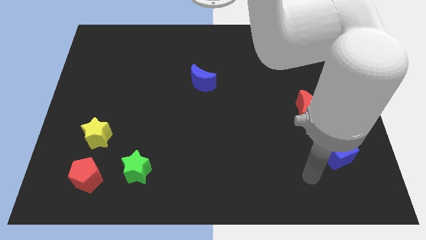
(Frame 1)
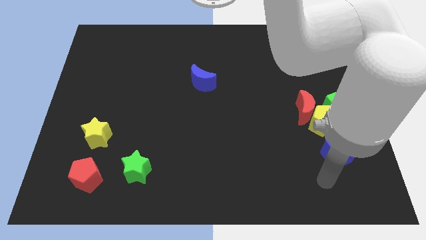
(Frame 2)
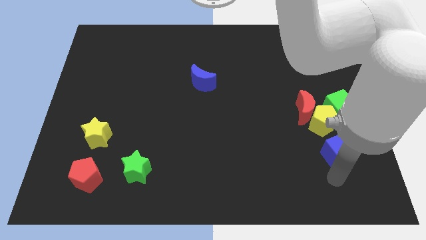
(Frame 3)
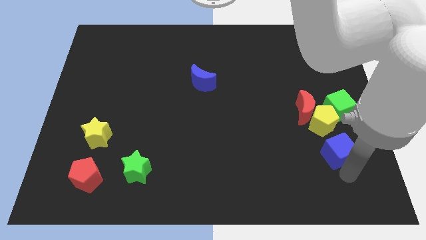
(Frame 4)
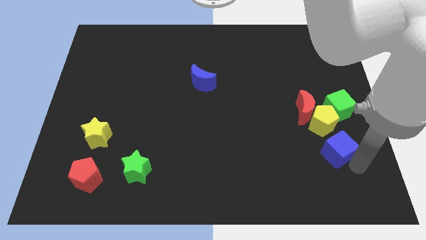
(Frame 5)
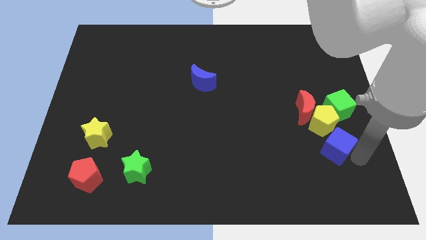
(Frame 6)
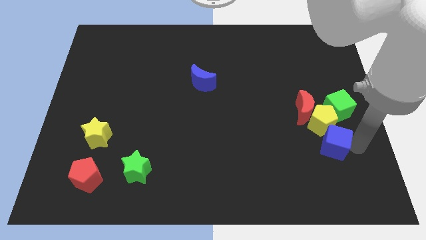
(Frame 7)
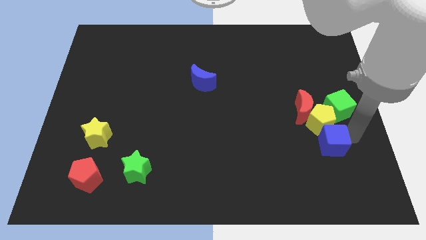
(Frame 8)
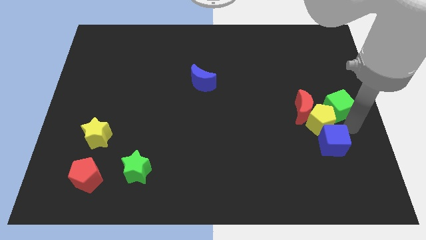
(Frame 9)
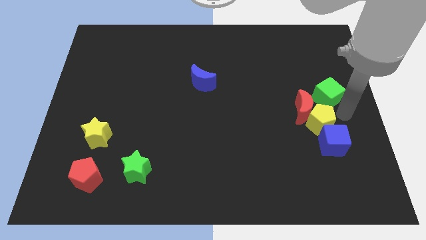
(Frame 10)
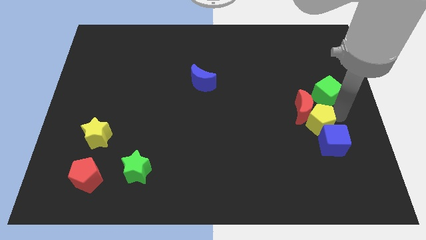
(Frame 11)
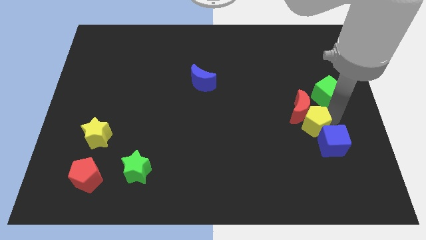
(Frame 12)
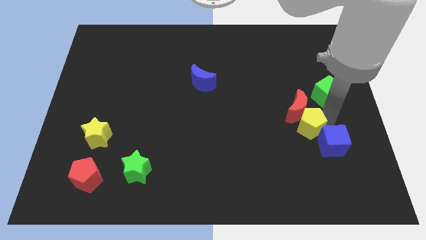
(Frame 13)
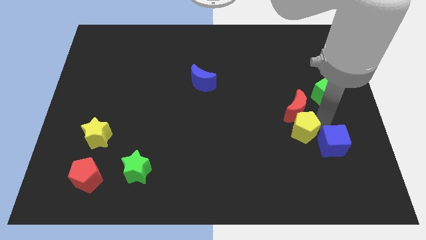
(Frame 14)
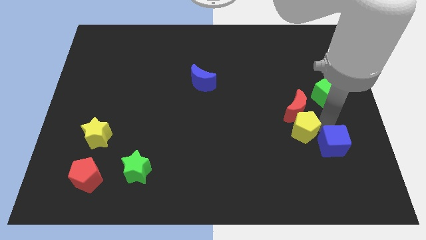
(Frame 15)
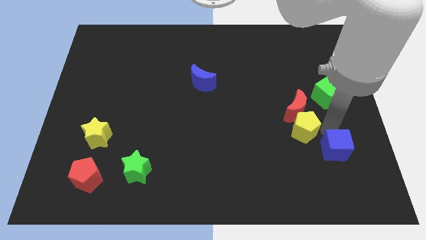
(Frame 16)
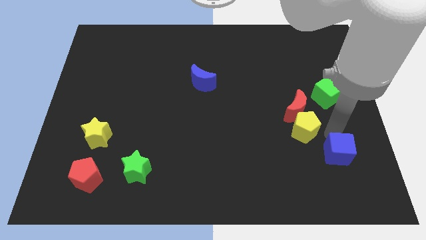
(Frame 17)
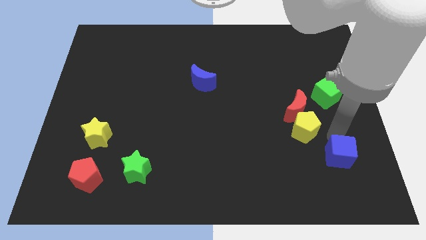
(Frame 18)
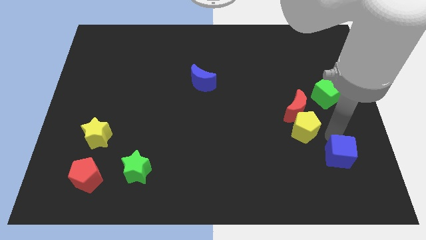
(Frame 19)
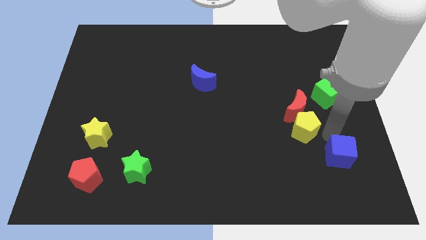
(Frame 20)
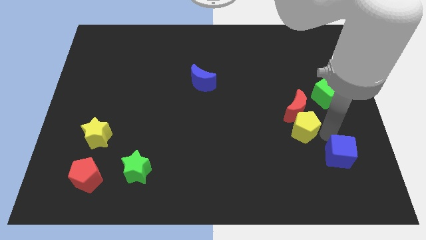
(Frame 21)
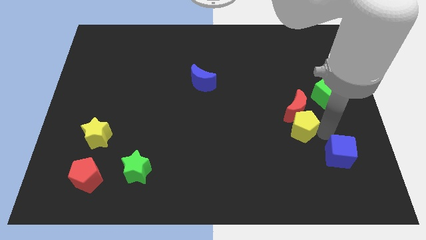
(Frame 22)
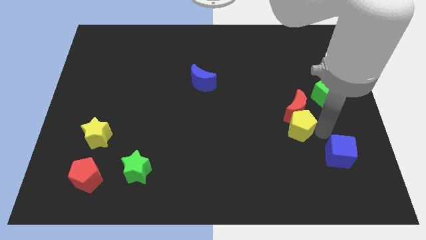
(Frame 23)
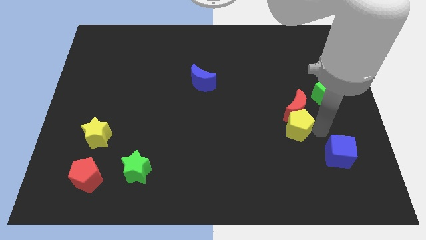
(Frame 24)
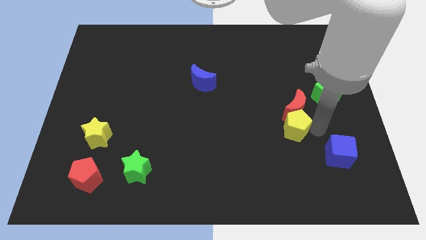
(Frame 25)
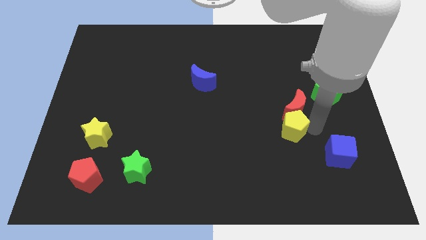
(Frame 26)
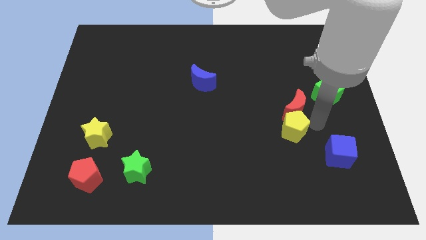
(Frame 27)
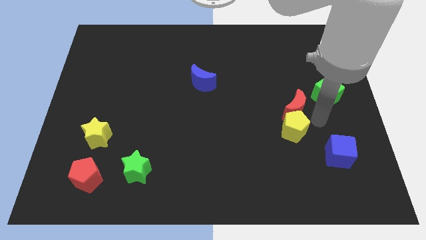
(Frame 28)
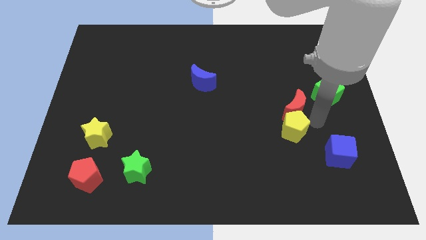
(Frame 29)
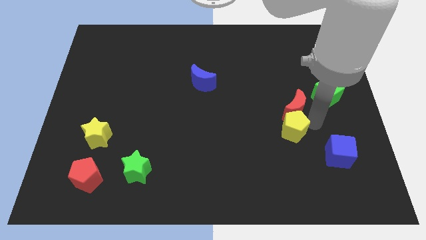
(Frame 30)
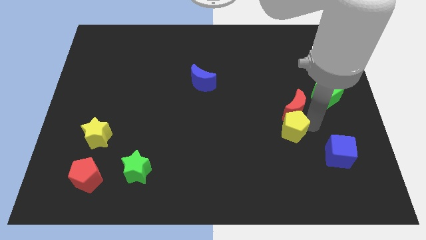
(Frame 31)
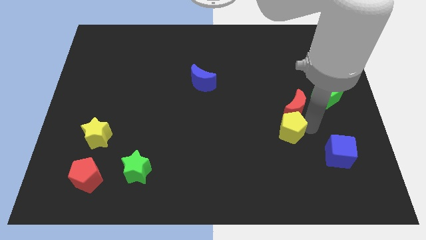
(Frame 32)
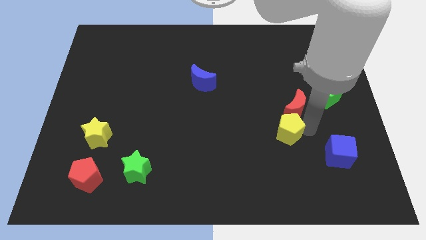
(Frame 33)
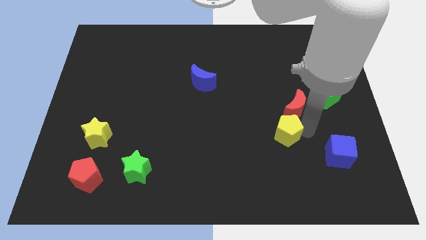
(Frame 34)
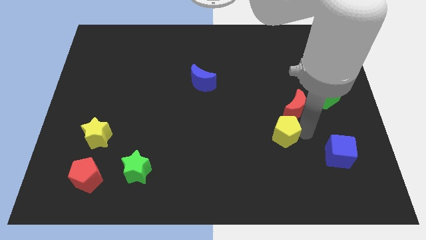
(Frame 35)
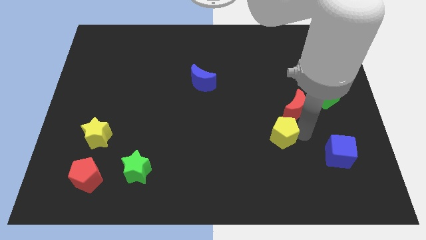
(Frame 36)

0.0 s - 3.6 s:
separate the yellow pentagon from the red moon, green cube, and blue cube

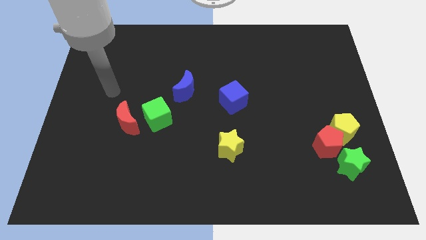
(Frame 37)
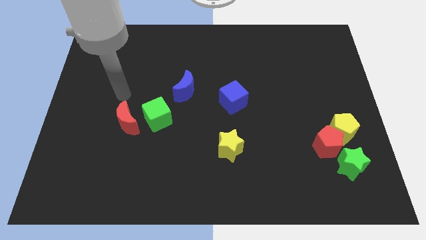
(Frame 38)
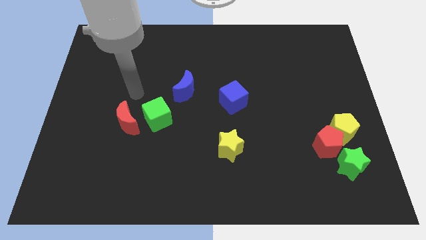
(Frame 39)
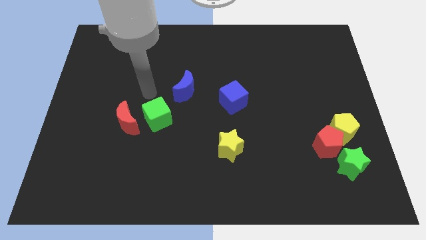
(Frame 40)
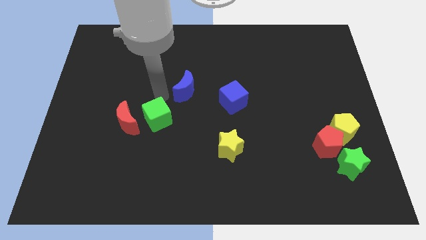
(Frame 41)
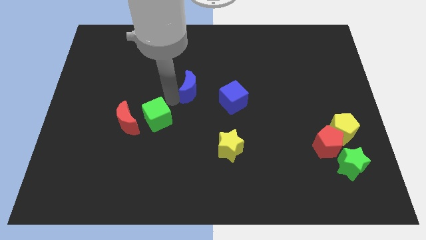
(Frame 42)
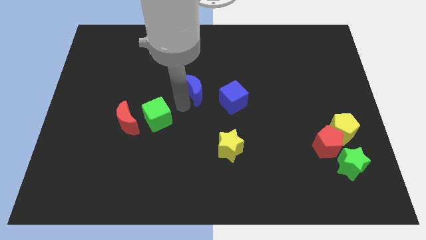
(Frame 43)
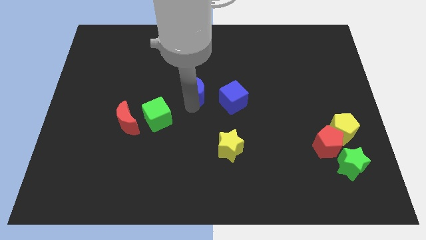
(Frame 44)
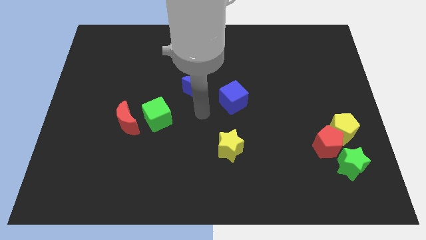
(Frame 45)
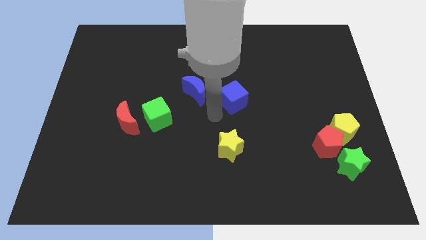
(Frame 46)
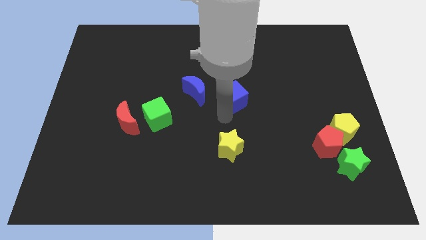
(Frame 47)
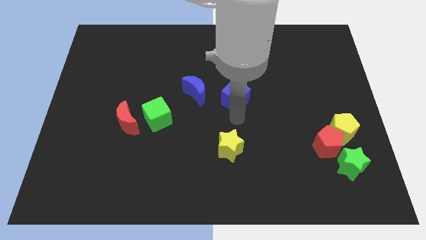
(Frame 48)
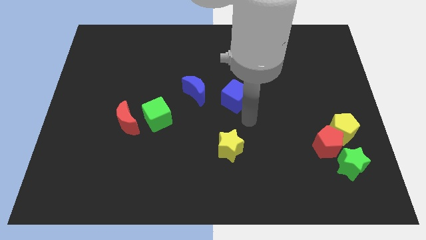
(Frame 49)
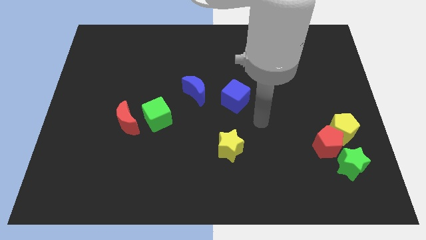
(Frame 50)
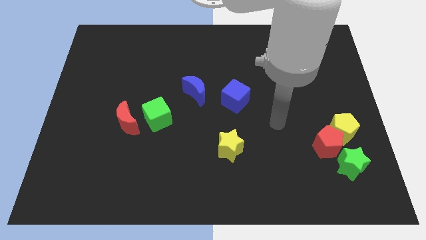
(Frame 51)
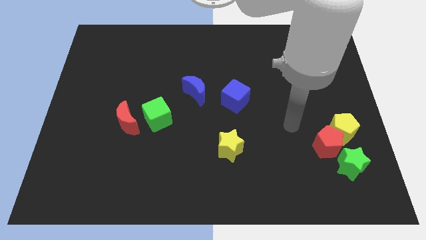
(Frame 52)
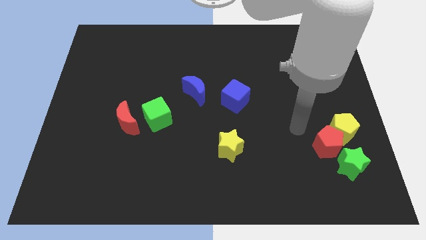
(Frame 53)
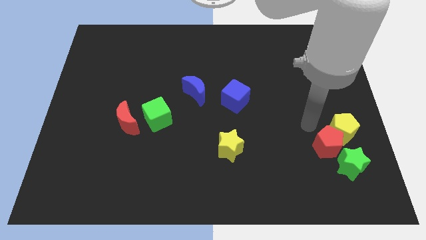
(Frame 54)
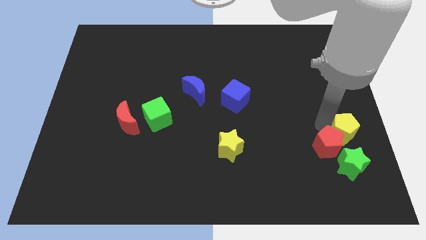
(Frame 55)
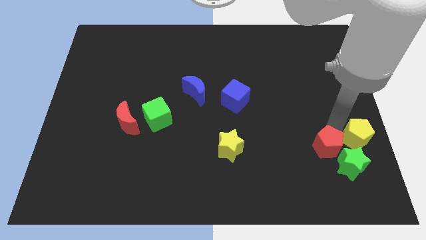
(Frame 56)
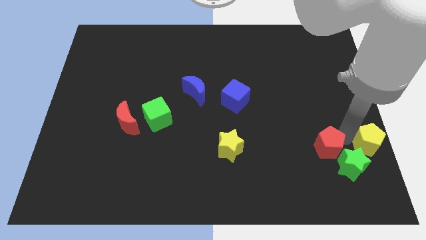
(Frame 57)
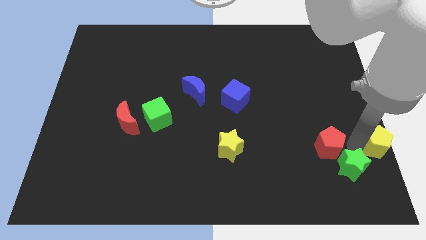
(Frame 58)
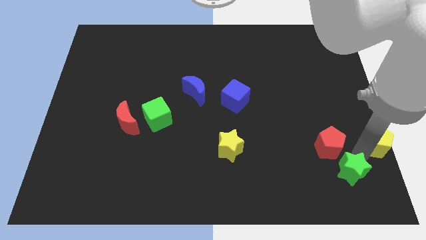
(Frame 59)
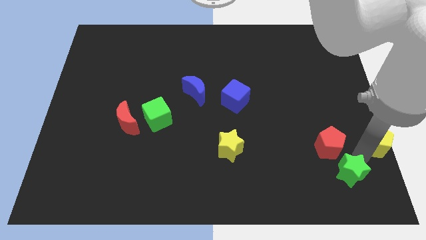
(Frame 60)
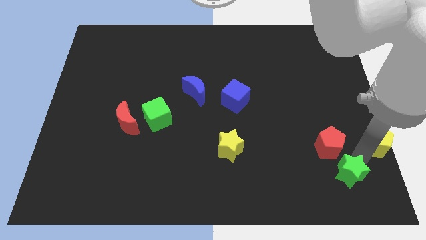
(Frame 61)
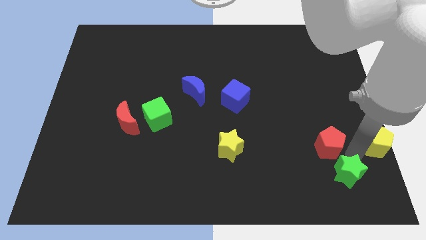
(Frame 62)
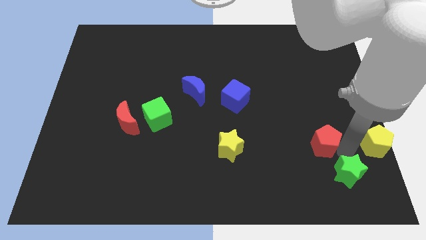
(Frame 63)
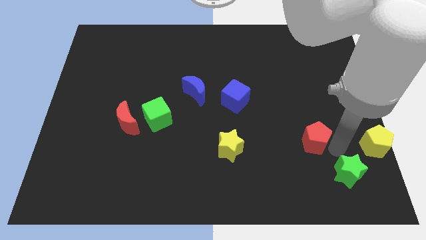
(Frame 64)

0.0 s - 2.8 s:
pull the red pentagon apart from the yellow pentagon and green star

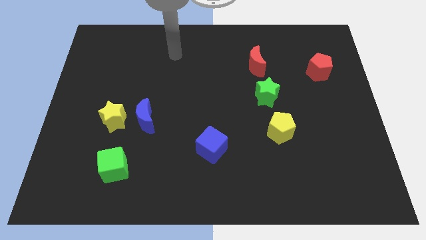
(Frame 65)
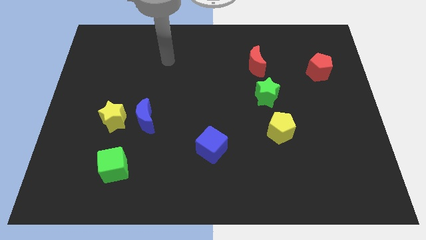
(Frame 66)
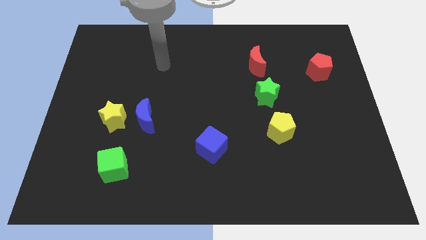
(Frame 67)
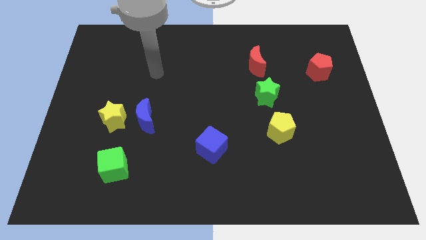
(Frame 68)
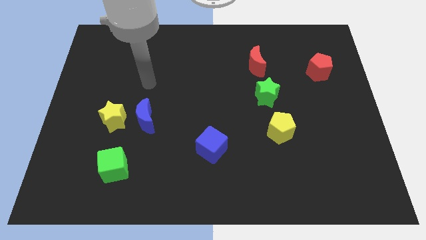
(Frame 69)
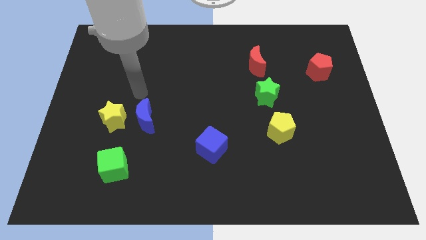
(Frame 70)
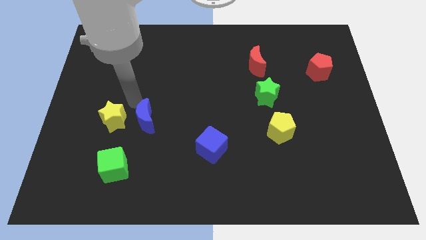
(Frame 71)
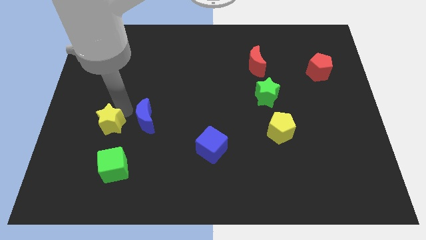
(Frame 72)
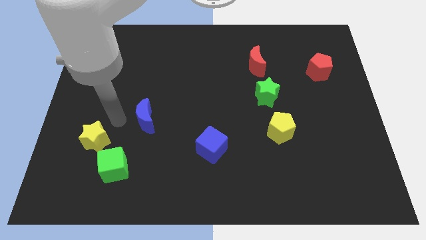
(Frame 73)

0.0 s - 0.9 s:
separate the blue moon from the yellow star

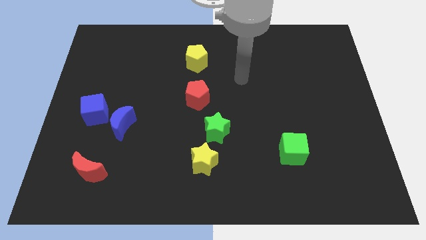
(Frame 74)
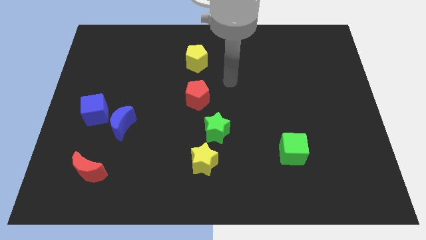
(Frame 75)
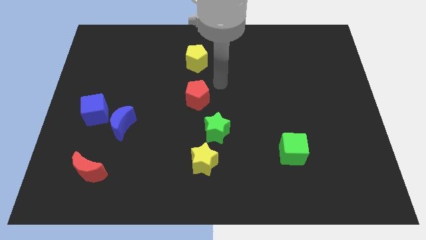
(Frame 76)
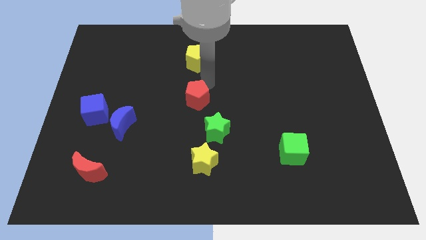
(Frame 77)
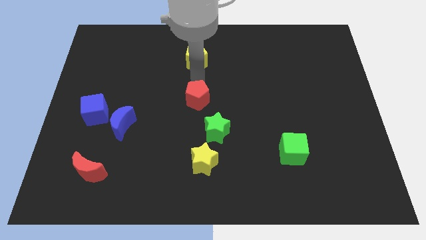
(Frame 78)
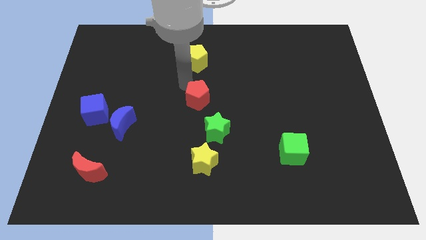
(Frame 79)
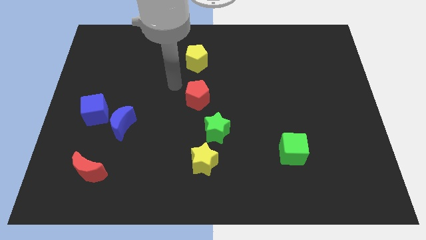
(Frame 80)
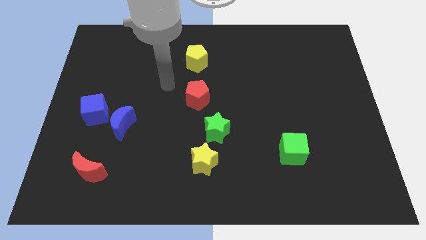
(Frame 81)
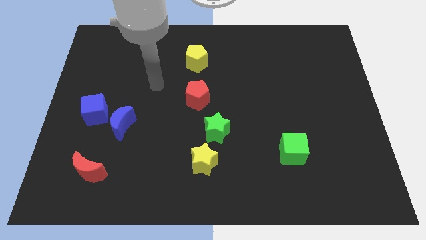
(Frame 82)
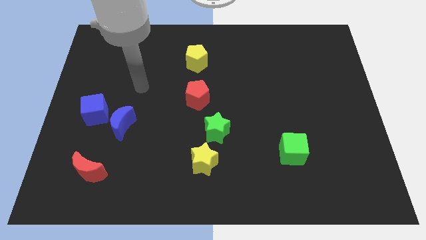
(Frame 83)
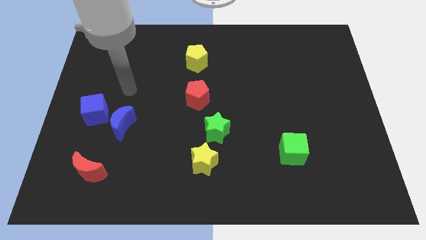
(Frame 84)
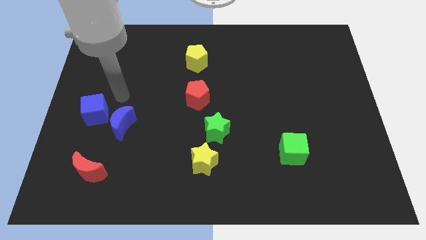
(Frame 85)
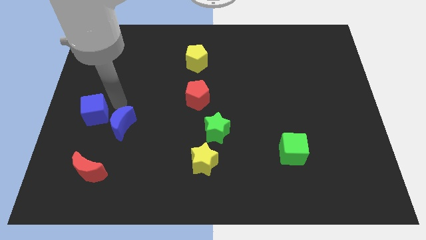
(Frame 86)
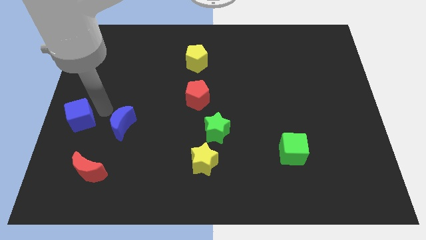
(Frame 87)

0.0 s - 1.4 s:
move the blue moon away from the blue cube

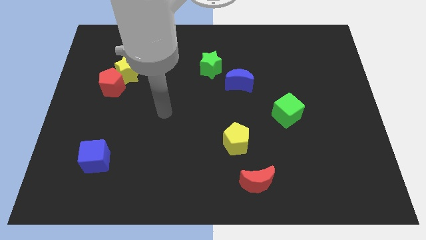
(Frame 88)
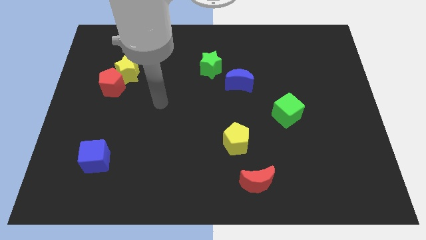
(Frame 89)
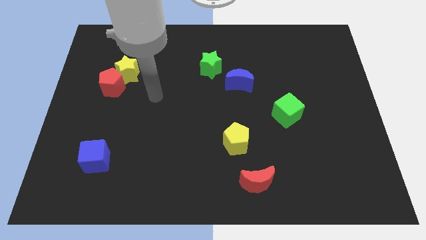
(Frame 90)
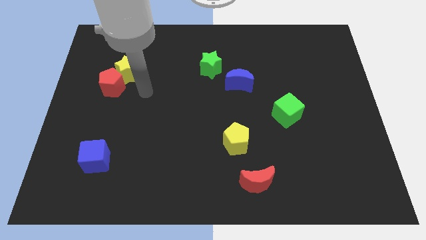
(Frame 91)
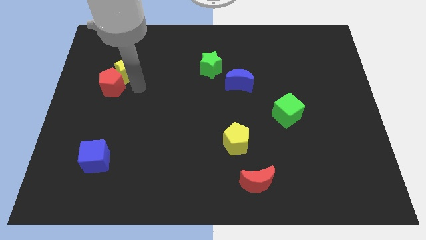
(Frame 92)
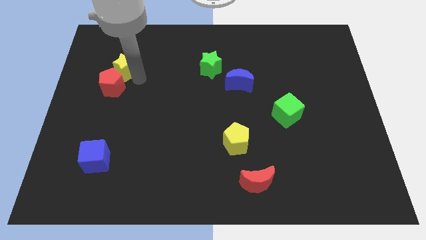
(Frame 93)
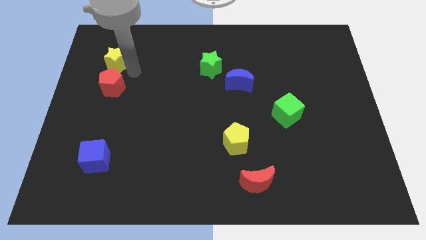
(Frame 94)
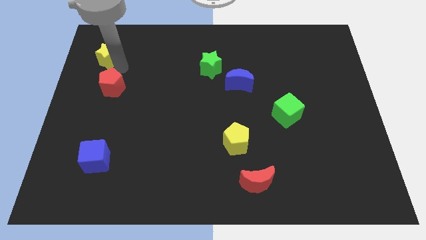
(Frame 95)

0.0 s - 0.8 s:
move the red pentagon away from the yellow star

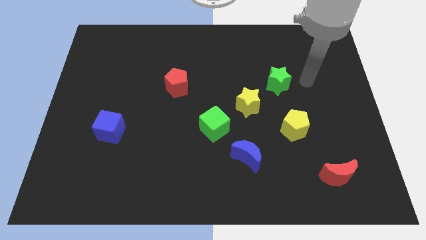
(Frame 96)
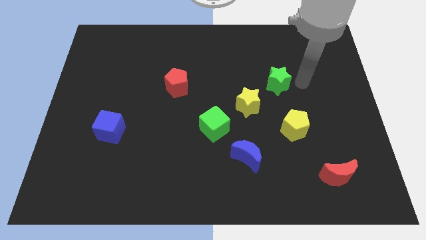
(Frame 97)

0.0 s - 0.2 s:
separate the green star from the yellow star
